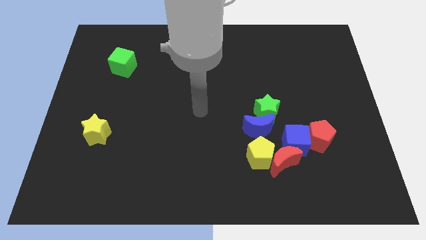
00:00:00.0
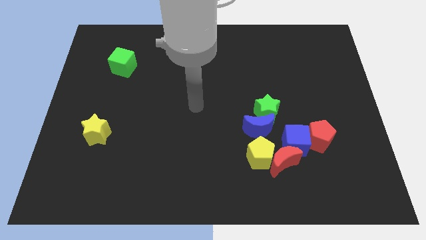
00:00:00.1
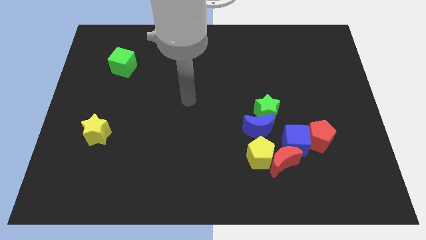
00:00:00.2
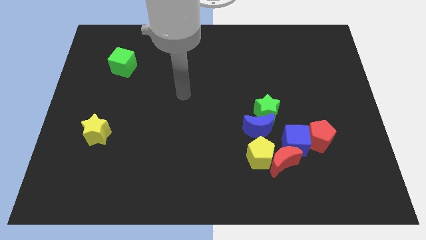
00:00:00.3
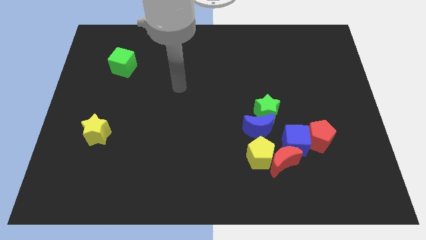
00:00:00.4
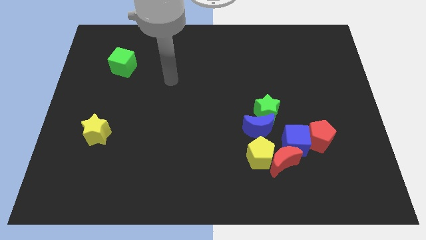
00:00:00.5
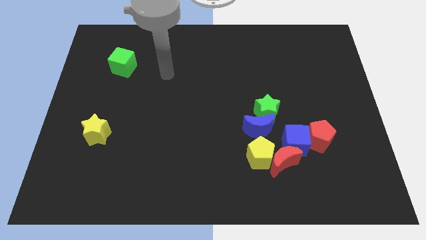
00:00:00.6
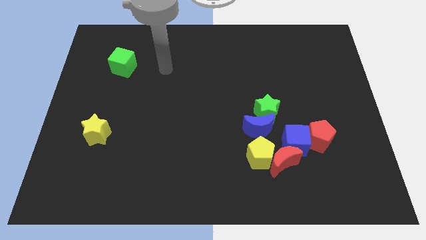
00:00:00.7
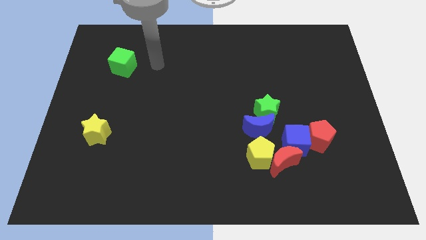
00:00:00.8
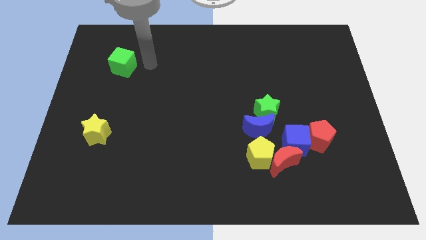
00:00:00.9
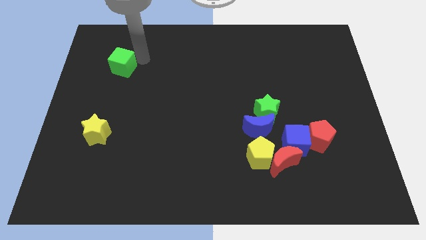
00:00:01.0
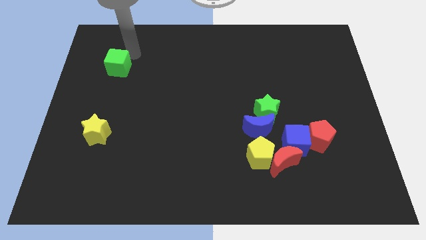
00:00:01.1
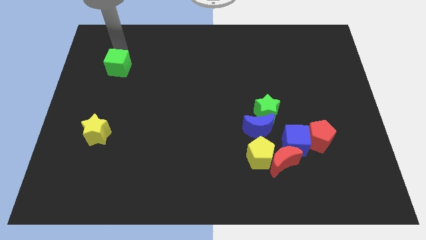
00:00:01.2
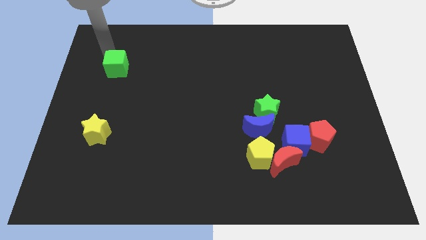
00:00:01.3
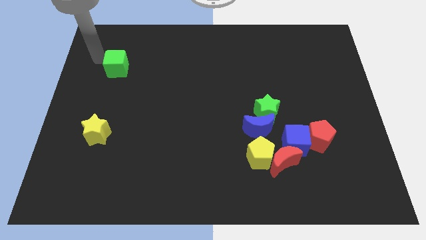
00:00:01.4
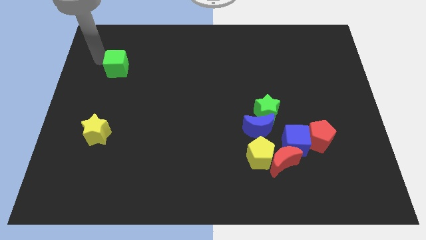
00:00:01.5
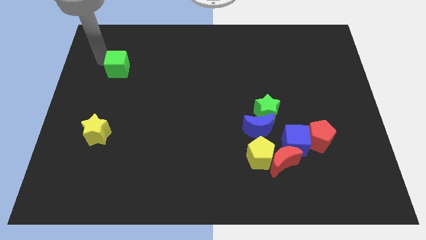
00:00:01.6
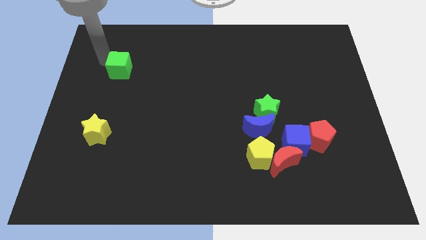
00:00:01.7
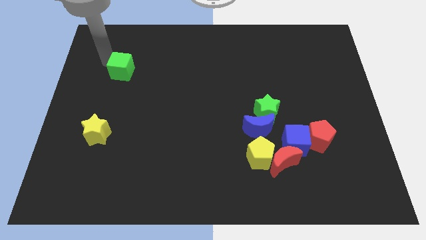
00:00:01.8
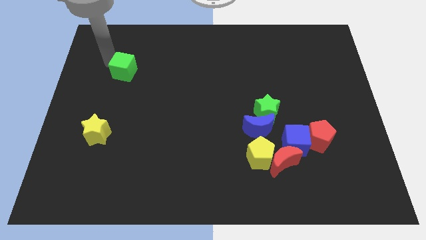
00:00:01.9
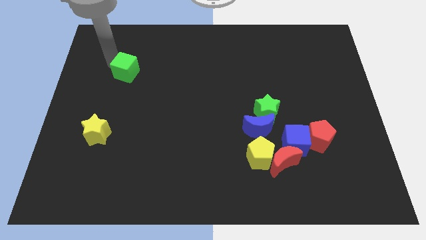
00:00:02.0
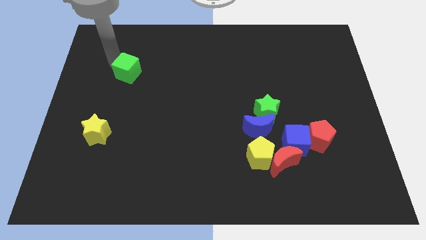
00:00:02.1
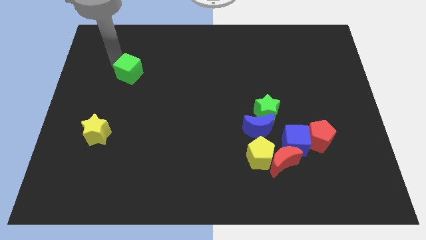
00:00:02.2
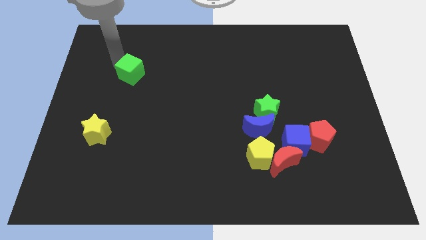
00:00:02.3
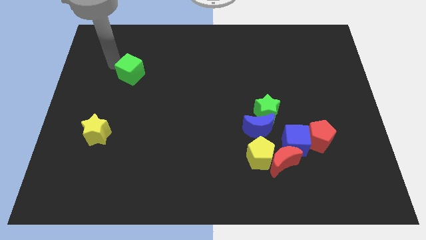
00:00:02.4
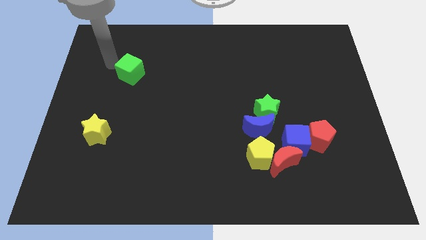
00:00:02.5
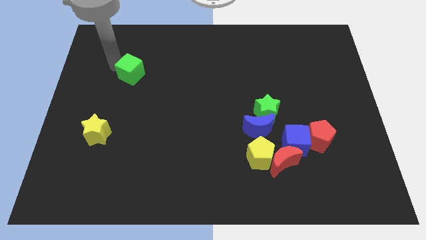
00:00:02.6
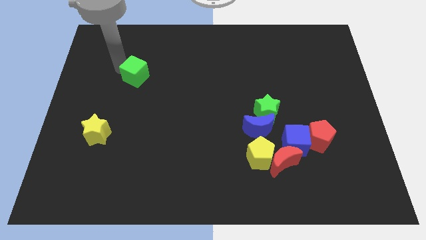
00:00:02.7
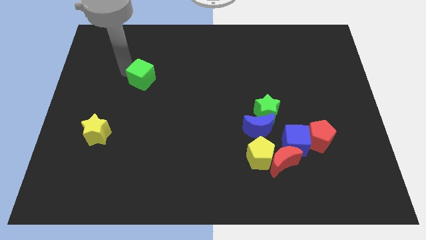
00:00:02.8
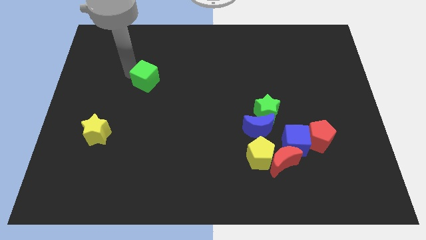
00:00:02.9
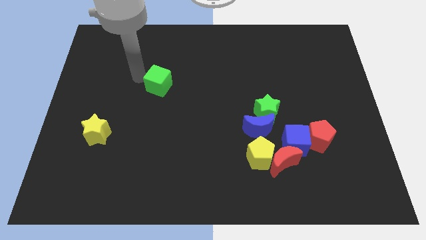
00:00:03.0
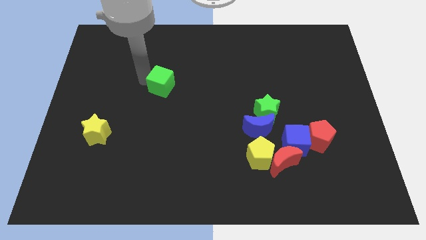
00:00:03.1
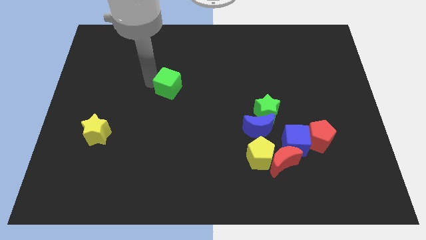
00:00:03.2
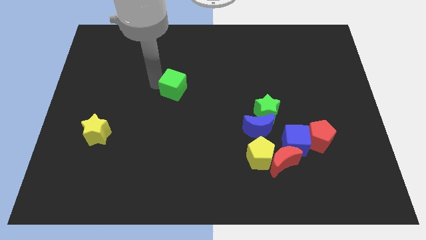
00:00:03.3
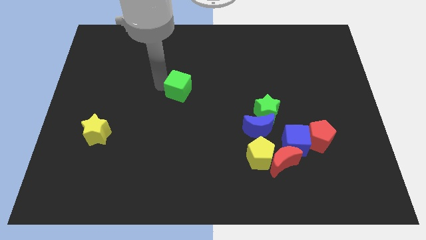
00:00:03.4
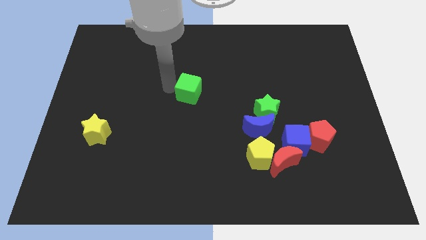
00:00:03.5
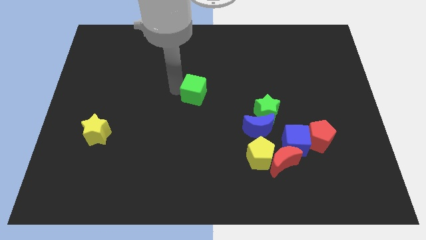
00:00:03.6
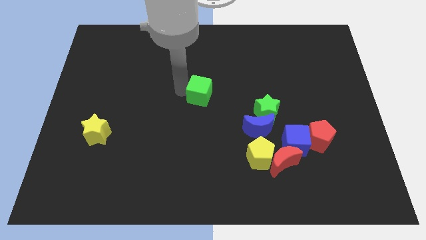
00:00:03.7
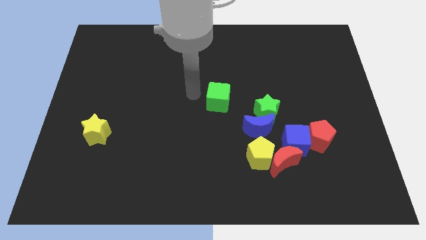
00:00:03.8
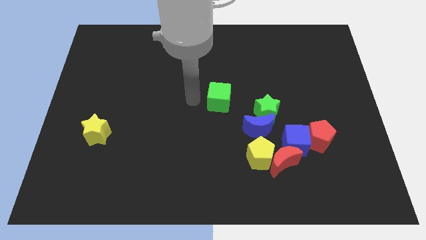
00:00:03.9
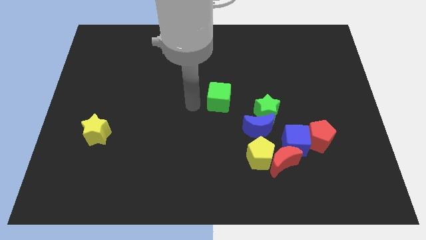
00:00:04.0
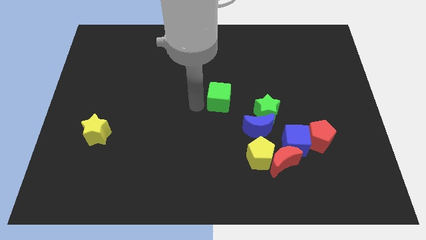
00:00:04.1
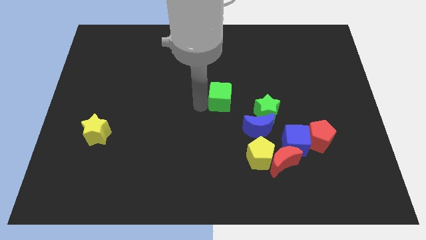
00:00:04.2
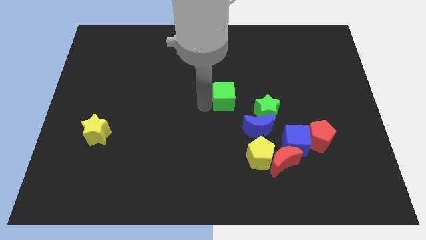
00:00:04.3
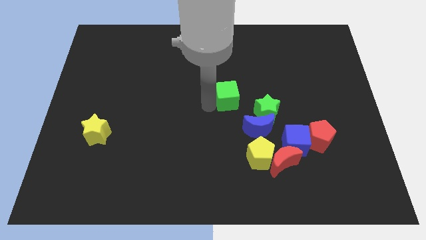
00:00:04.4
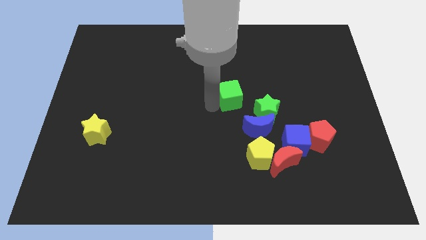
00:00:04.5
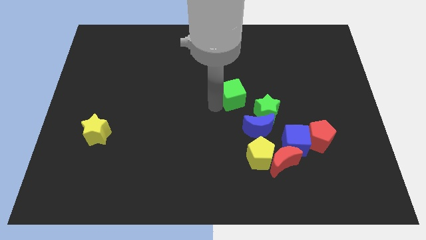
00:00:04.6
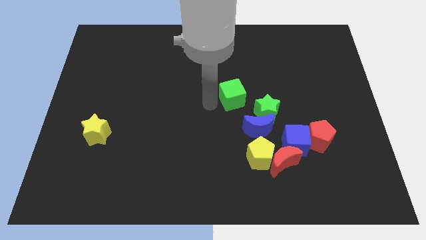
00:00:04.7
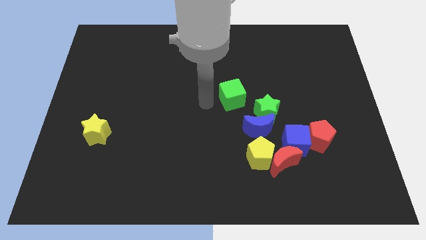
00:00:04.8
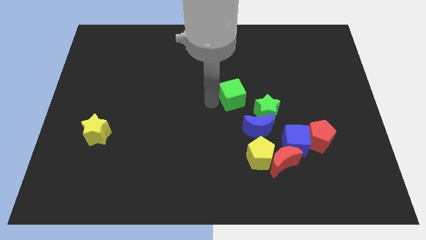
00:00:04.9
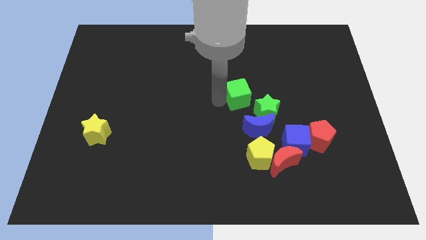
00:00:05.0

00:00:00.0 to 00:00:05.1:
move the green cube above the blue moon

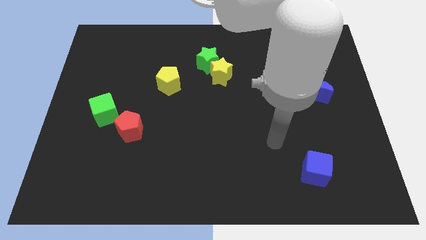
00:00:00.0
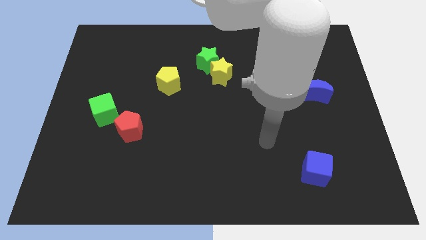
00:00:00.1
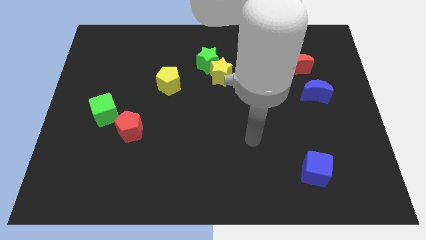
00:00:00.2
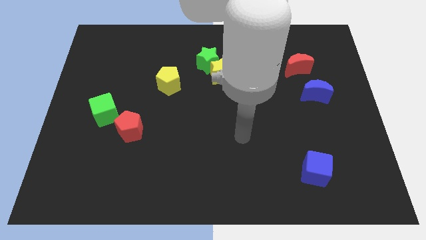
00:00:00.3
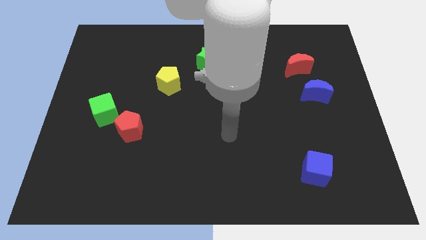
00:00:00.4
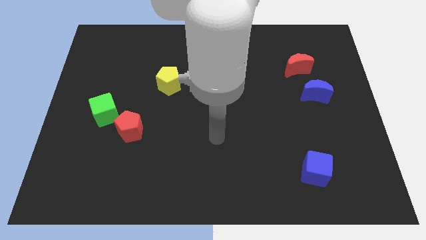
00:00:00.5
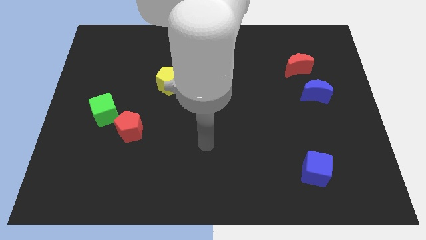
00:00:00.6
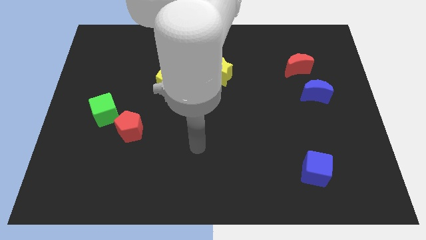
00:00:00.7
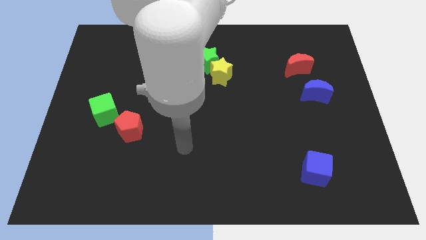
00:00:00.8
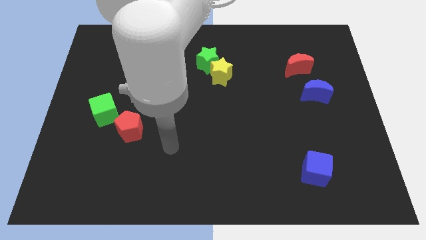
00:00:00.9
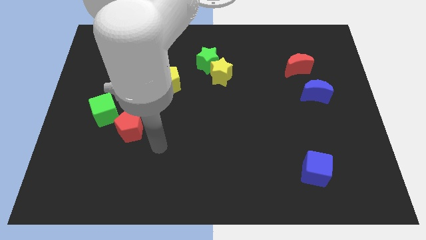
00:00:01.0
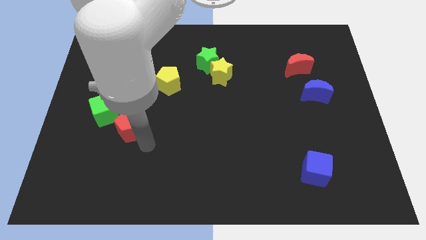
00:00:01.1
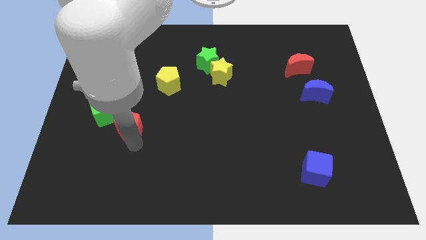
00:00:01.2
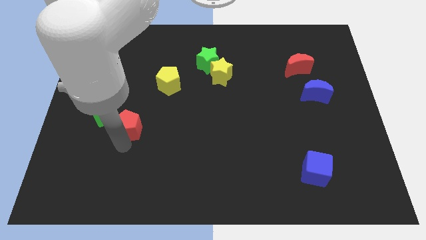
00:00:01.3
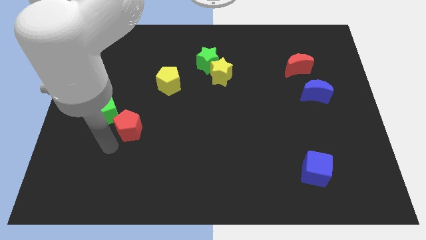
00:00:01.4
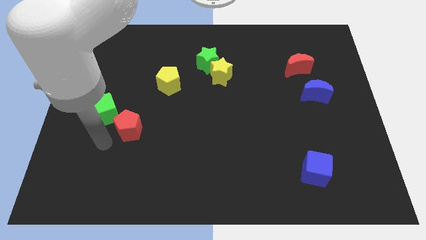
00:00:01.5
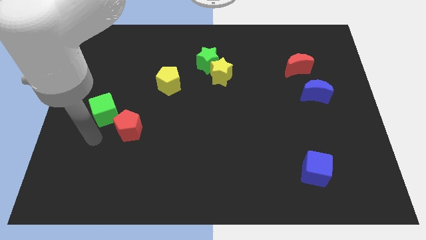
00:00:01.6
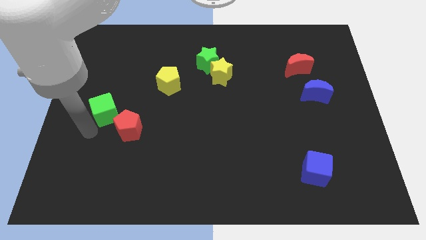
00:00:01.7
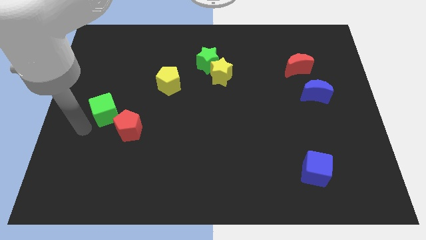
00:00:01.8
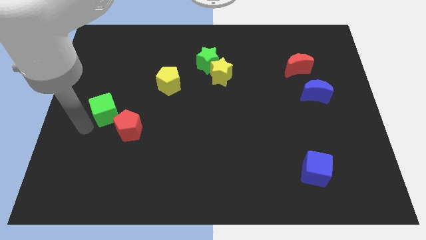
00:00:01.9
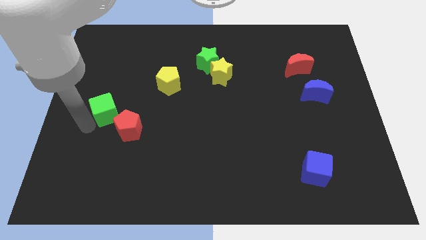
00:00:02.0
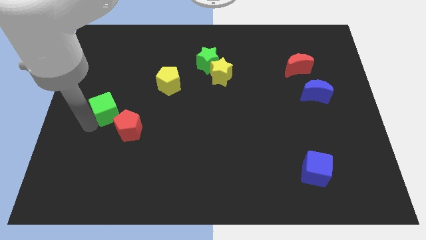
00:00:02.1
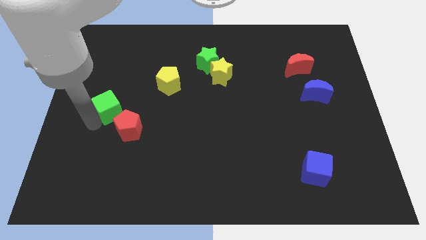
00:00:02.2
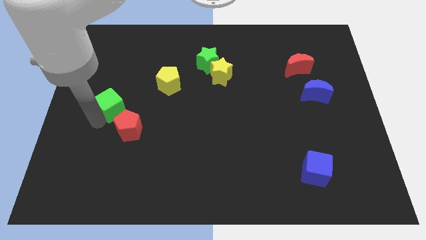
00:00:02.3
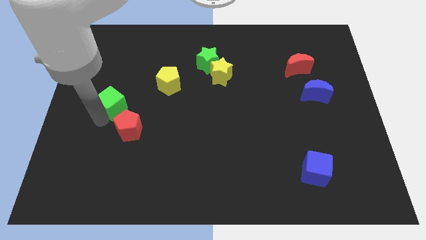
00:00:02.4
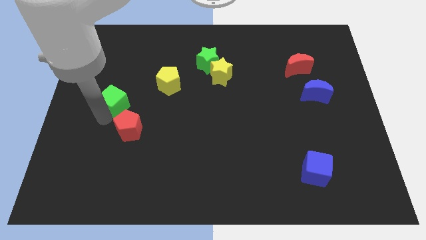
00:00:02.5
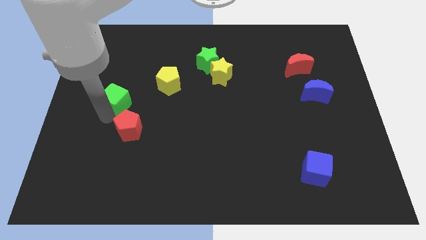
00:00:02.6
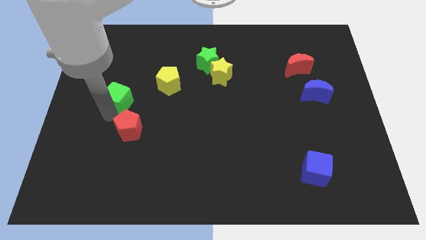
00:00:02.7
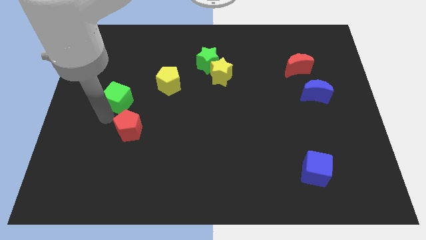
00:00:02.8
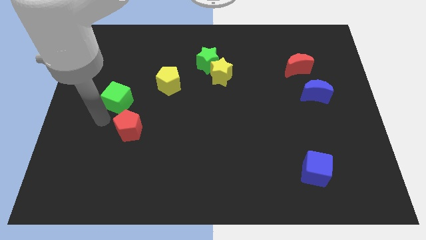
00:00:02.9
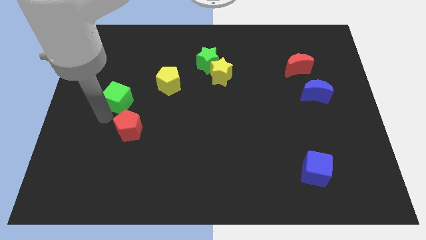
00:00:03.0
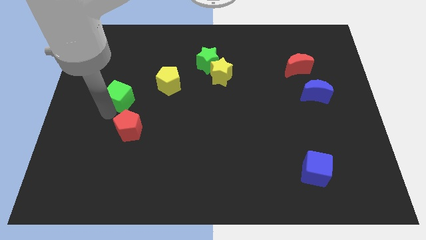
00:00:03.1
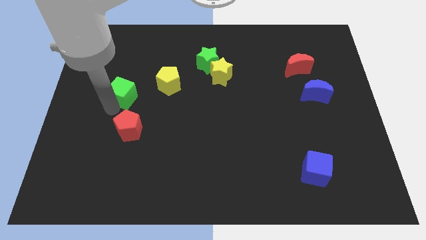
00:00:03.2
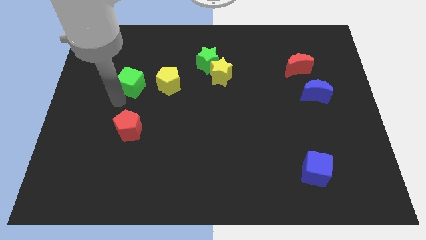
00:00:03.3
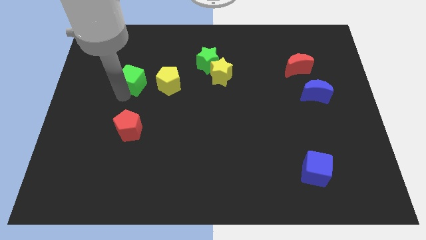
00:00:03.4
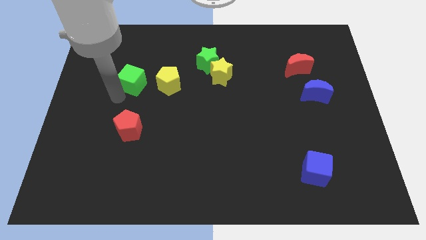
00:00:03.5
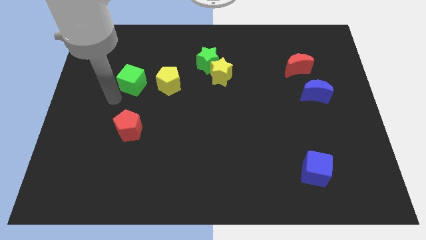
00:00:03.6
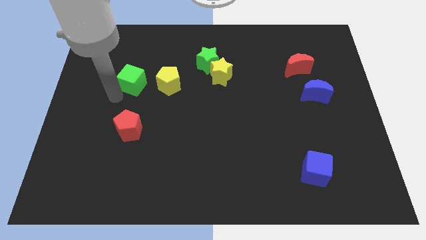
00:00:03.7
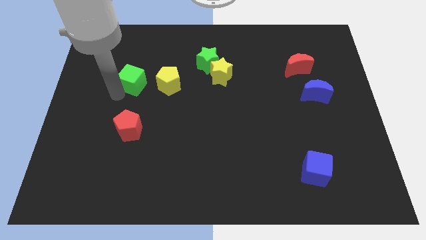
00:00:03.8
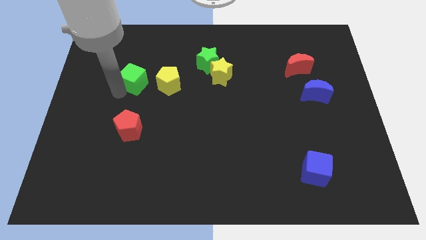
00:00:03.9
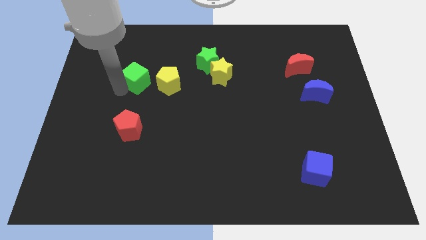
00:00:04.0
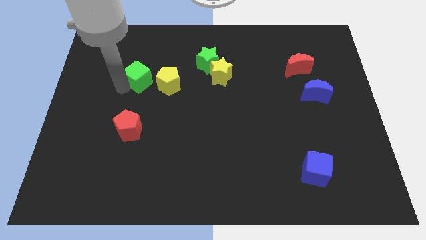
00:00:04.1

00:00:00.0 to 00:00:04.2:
slide the green cube to the top left of the yellow pentagon
